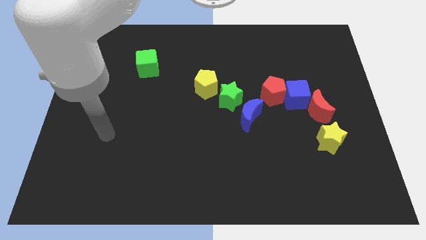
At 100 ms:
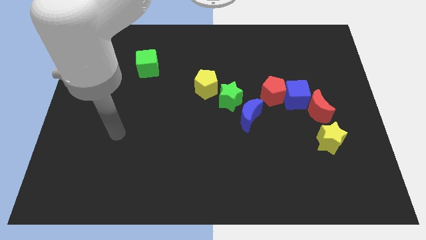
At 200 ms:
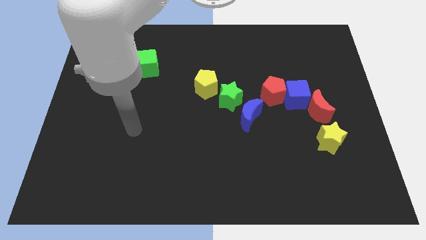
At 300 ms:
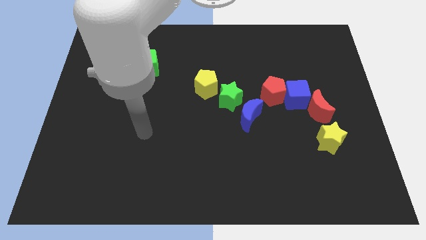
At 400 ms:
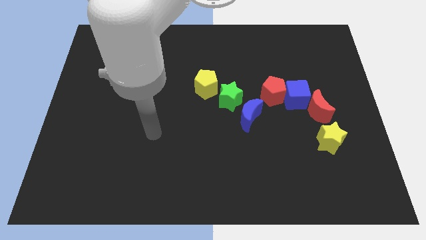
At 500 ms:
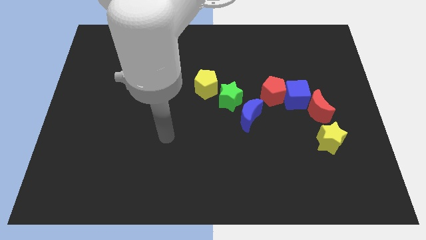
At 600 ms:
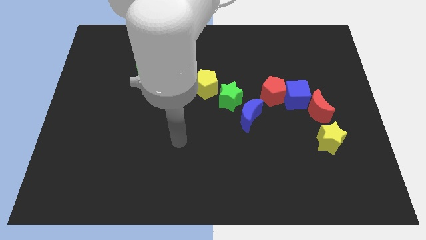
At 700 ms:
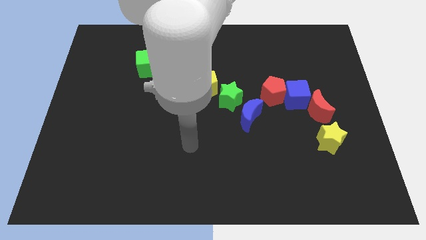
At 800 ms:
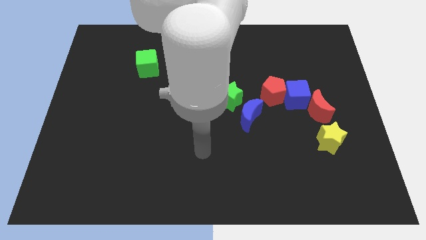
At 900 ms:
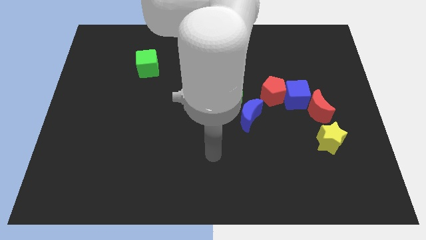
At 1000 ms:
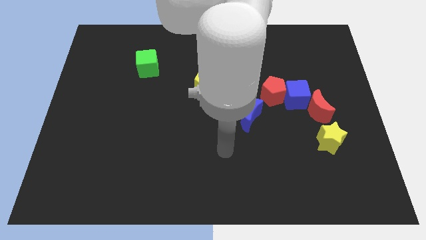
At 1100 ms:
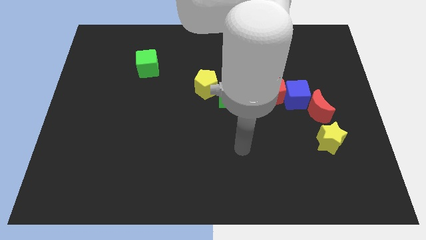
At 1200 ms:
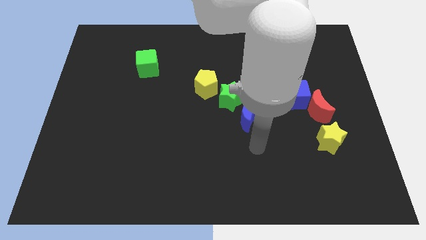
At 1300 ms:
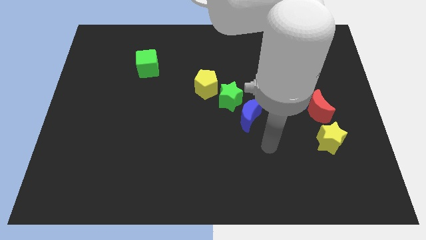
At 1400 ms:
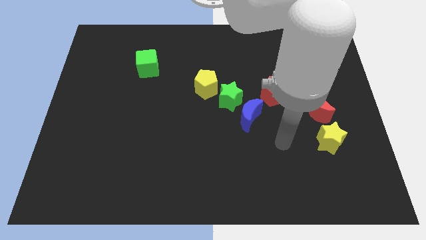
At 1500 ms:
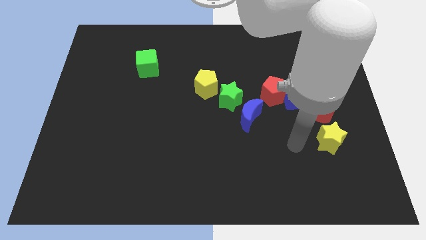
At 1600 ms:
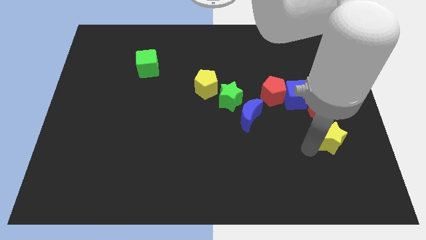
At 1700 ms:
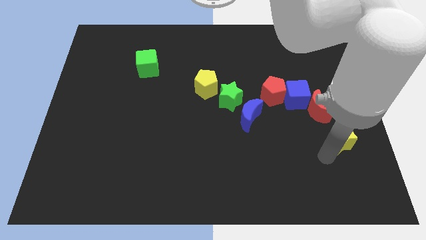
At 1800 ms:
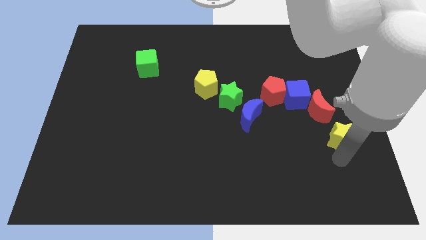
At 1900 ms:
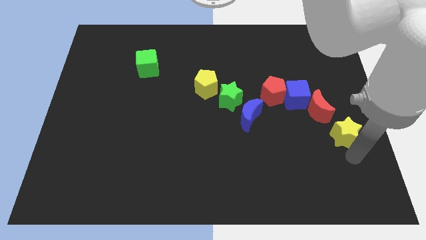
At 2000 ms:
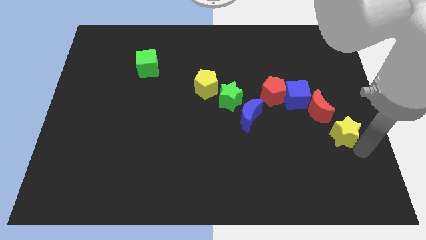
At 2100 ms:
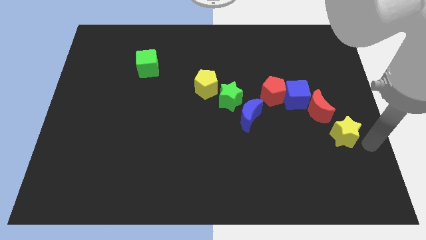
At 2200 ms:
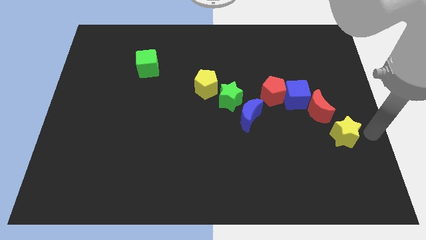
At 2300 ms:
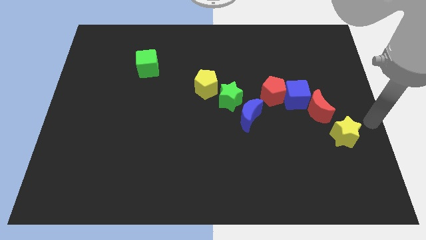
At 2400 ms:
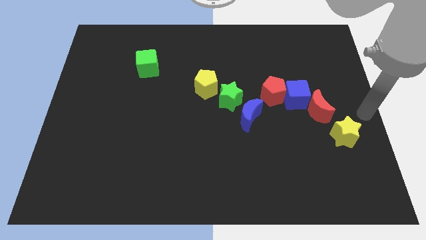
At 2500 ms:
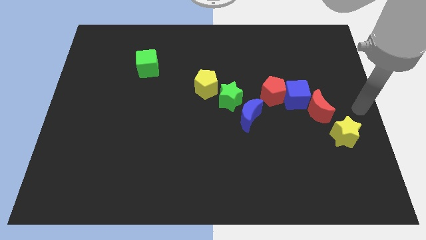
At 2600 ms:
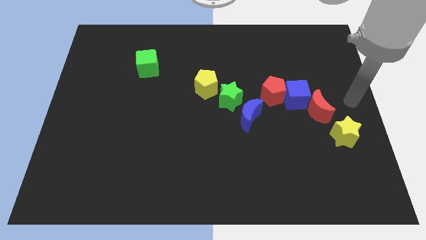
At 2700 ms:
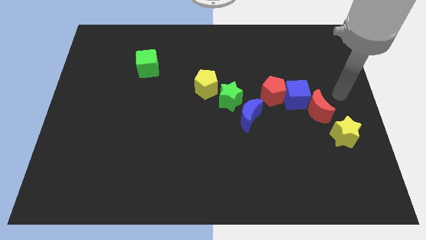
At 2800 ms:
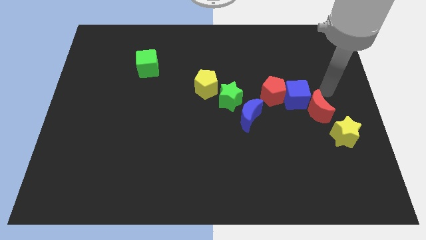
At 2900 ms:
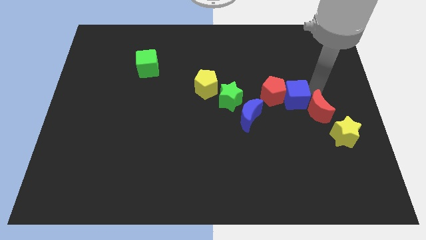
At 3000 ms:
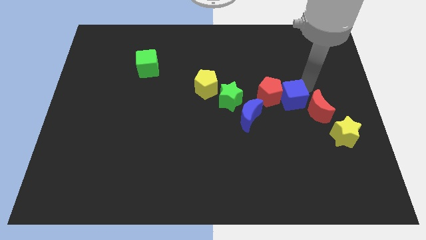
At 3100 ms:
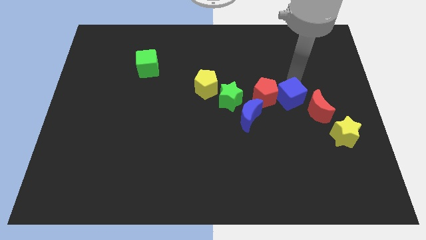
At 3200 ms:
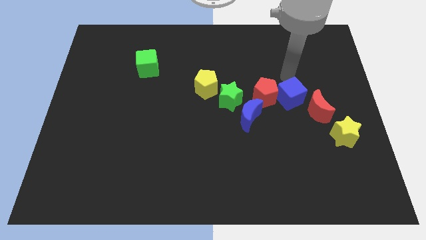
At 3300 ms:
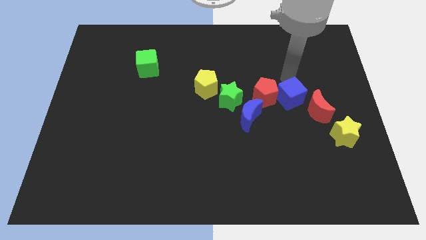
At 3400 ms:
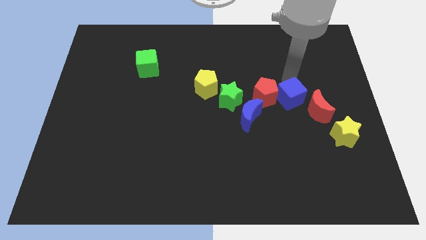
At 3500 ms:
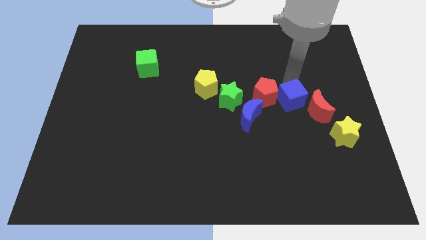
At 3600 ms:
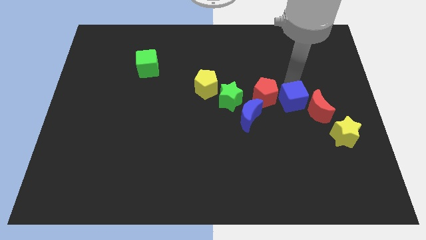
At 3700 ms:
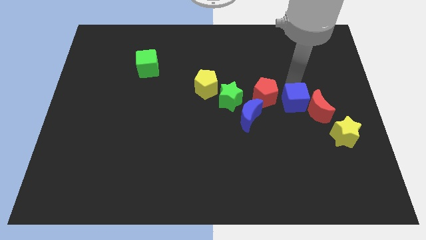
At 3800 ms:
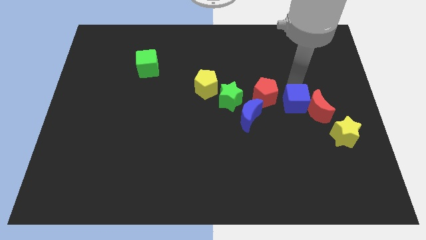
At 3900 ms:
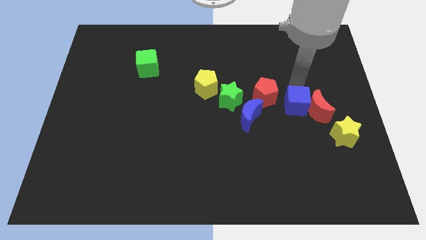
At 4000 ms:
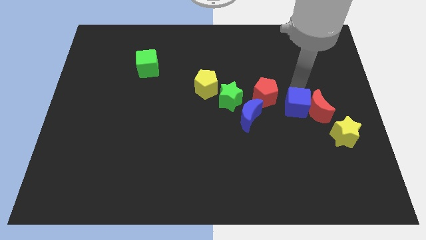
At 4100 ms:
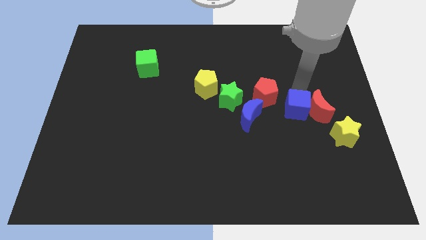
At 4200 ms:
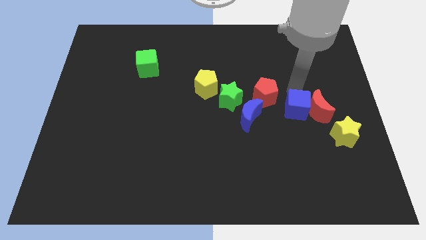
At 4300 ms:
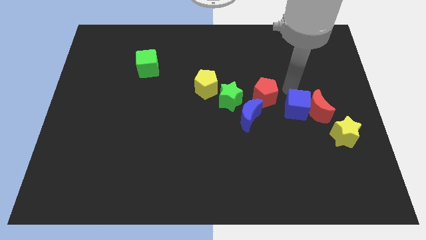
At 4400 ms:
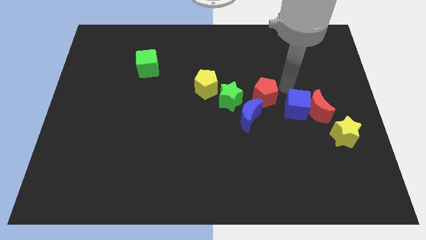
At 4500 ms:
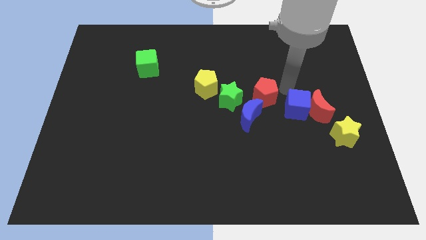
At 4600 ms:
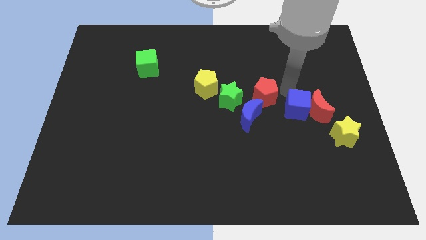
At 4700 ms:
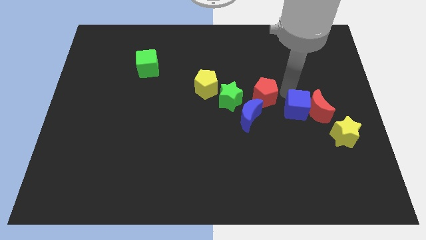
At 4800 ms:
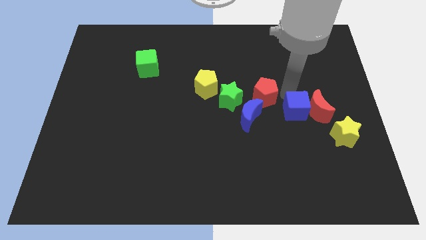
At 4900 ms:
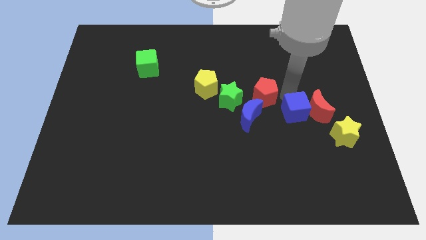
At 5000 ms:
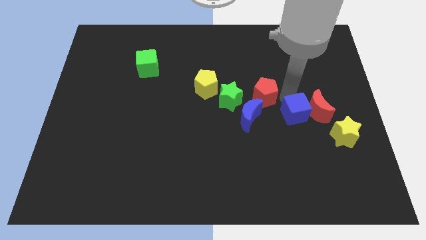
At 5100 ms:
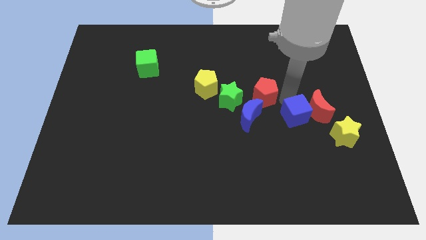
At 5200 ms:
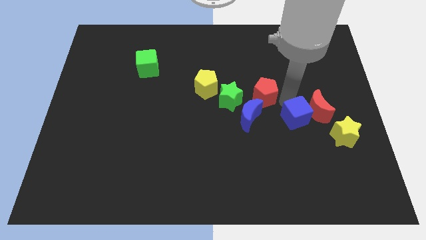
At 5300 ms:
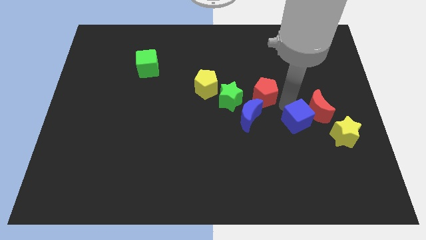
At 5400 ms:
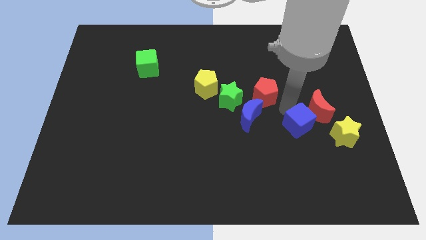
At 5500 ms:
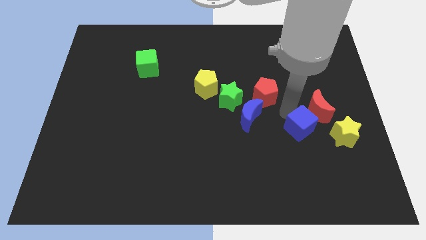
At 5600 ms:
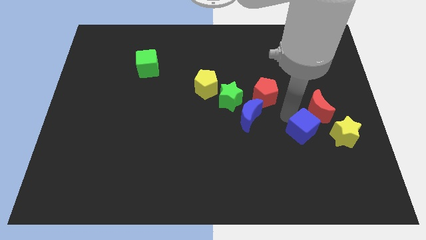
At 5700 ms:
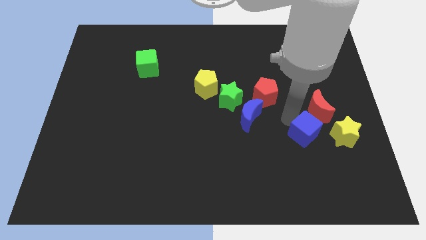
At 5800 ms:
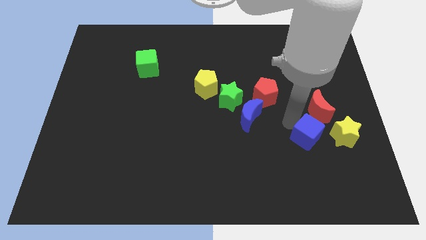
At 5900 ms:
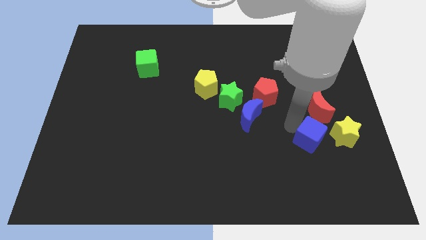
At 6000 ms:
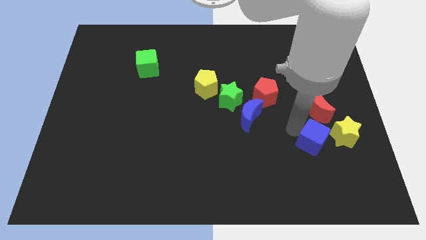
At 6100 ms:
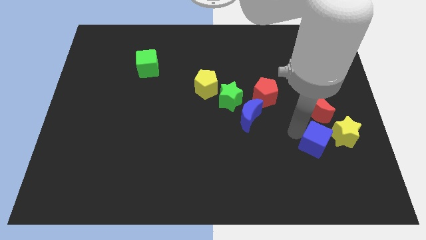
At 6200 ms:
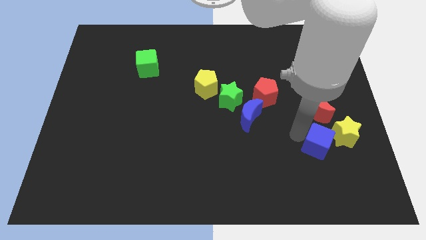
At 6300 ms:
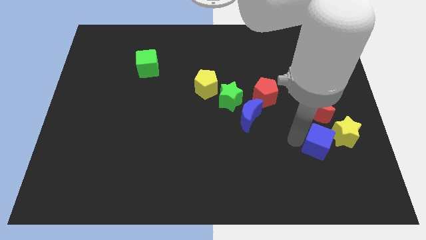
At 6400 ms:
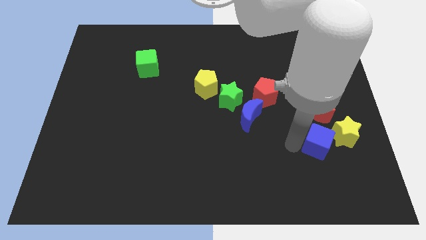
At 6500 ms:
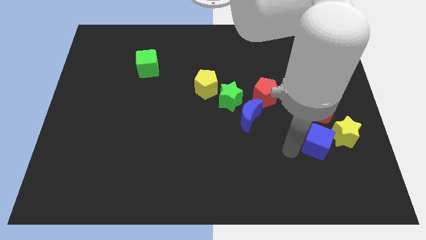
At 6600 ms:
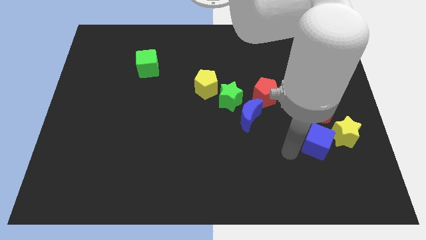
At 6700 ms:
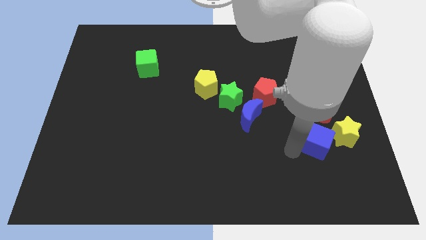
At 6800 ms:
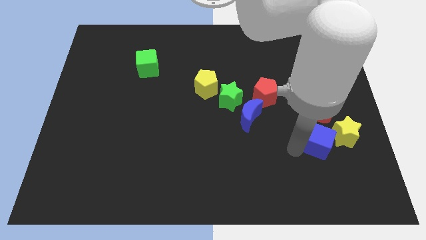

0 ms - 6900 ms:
move the blue cube to the yellow star

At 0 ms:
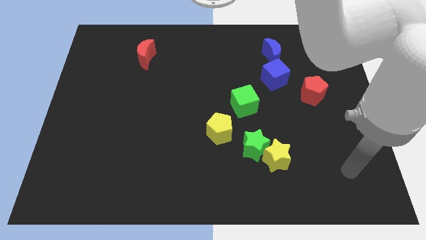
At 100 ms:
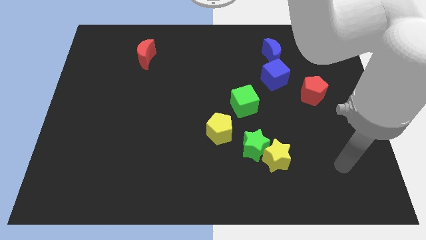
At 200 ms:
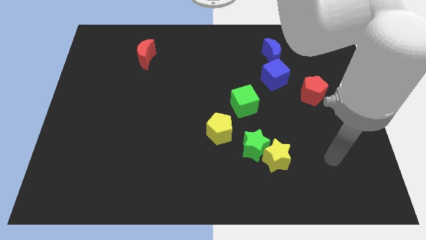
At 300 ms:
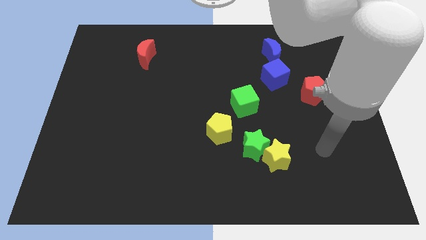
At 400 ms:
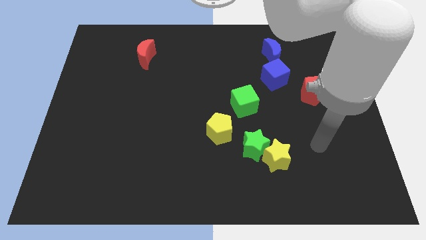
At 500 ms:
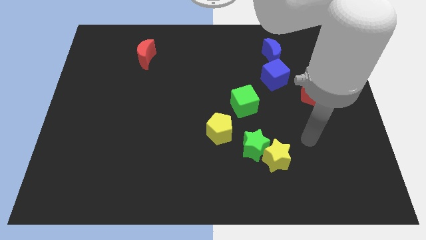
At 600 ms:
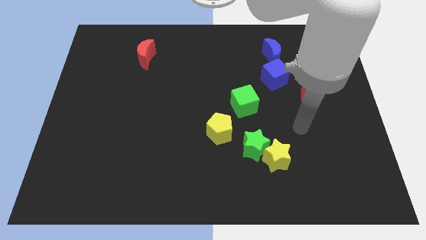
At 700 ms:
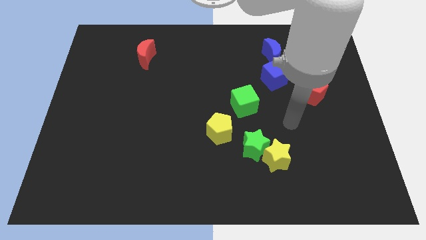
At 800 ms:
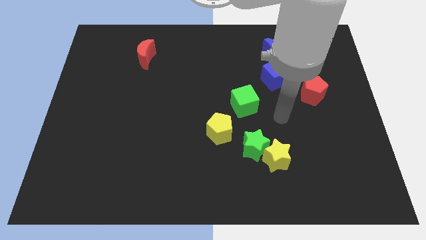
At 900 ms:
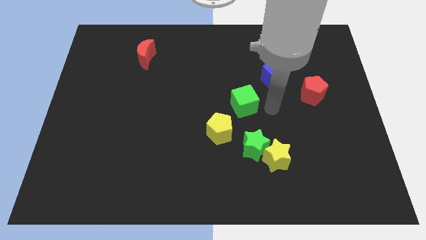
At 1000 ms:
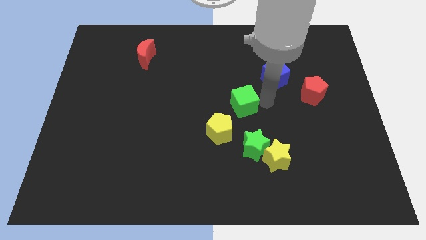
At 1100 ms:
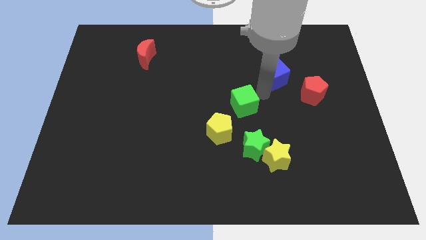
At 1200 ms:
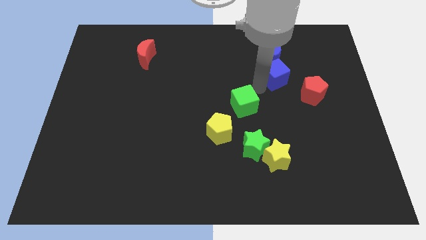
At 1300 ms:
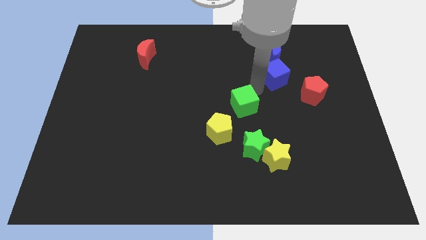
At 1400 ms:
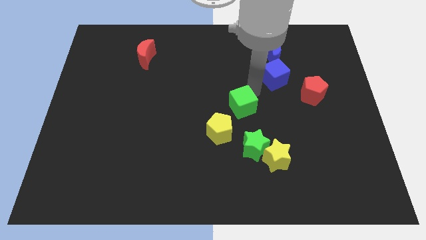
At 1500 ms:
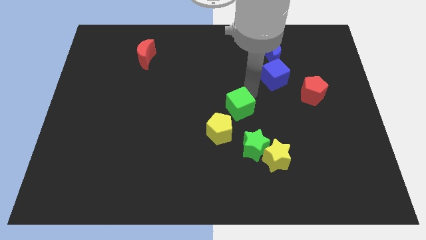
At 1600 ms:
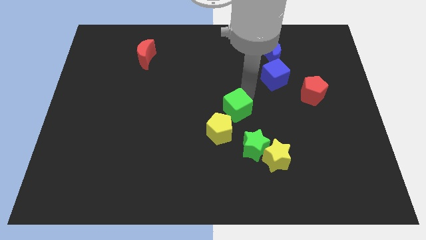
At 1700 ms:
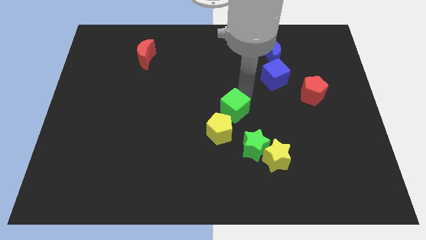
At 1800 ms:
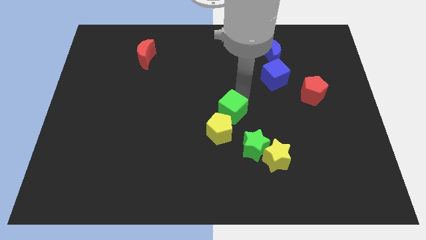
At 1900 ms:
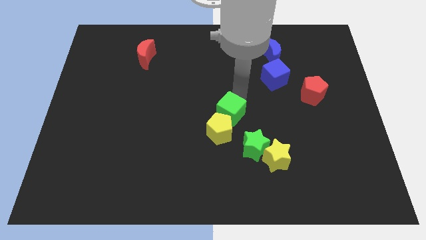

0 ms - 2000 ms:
push the green cube towards the yellow pentagon
